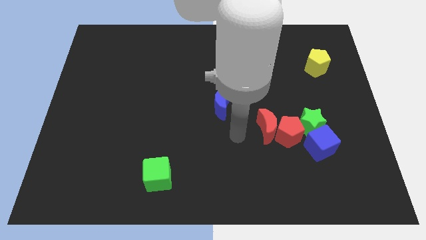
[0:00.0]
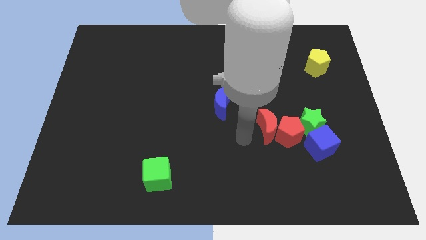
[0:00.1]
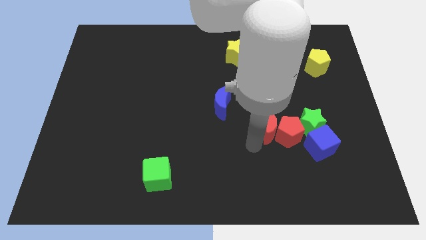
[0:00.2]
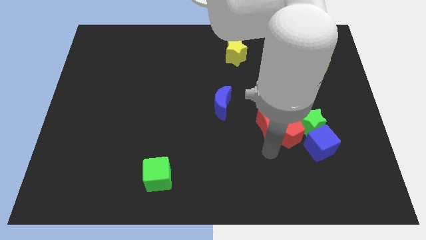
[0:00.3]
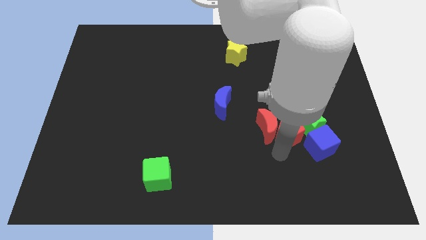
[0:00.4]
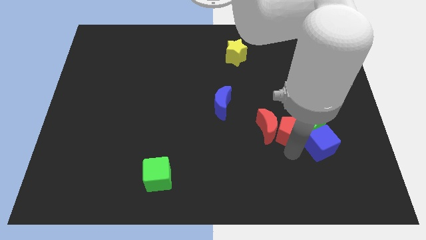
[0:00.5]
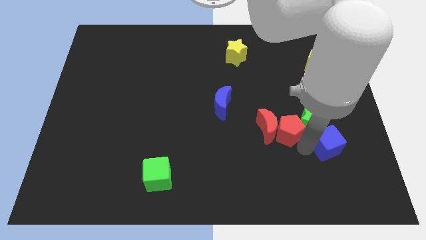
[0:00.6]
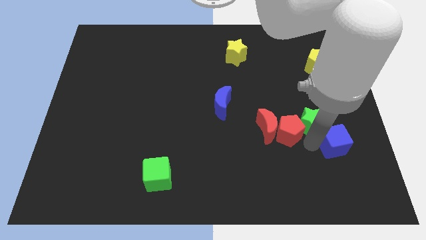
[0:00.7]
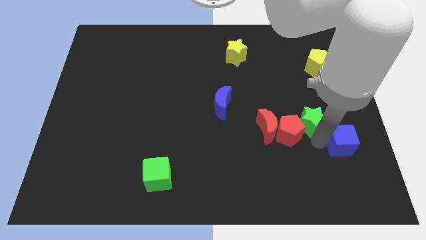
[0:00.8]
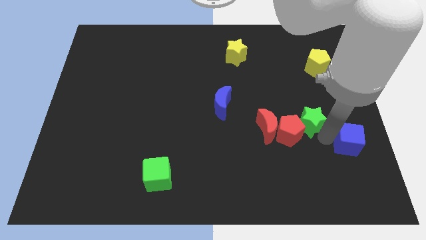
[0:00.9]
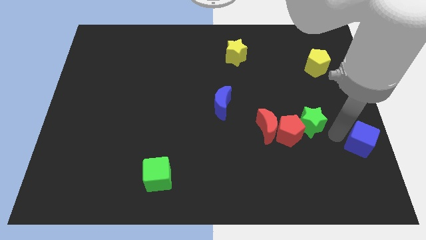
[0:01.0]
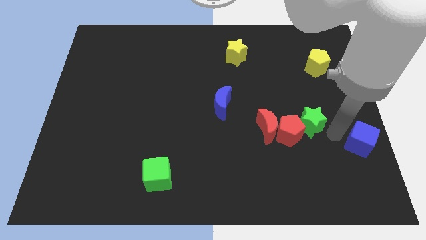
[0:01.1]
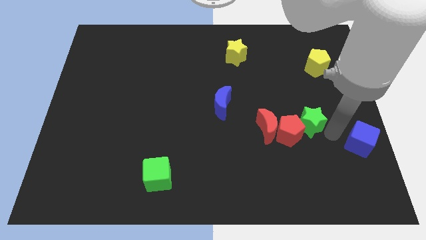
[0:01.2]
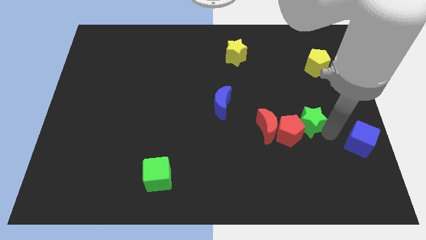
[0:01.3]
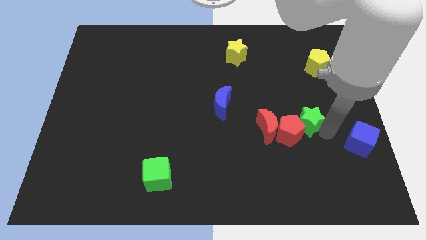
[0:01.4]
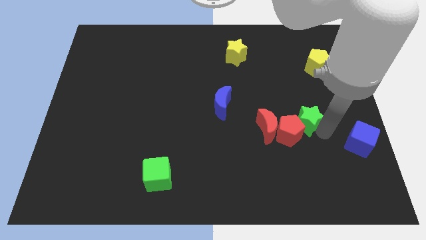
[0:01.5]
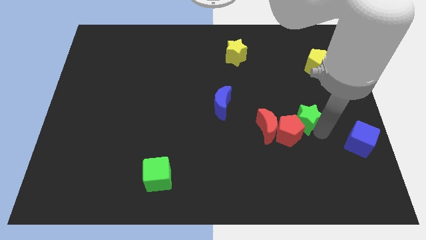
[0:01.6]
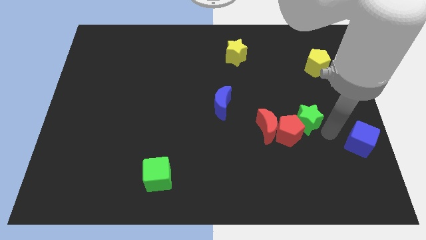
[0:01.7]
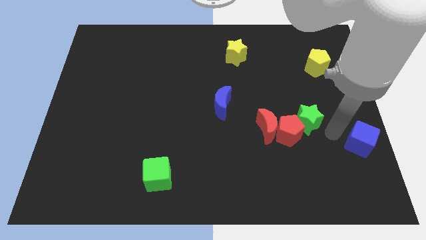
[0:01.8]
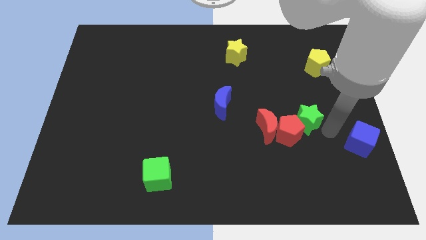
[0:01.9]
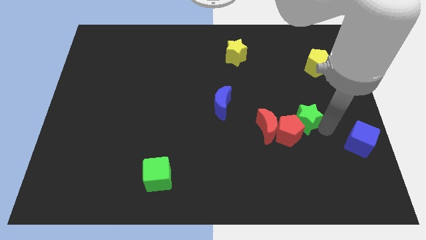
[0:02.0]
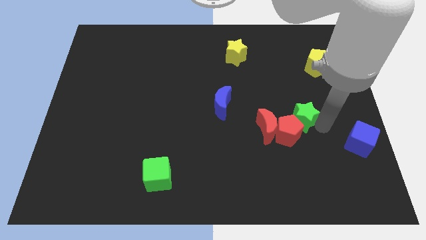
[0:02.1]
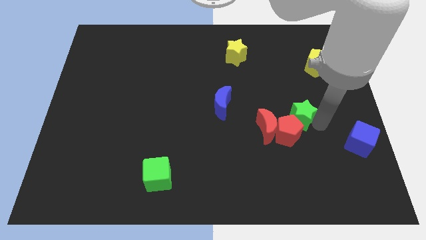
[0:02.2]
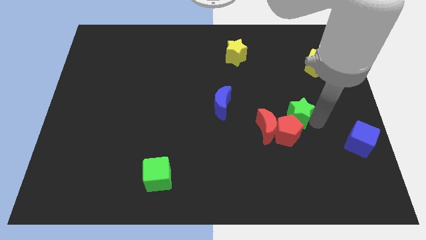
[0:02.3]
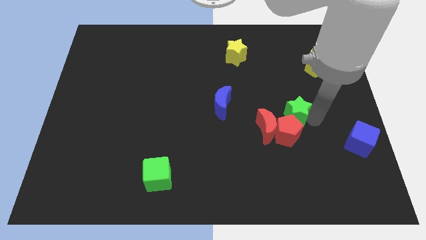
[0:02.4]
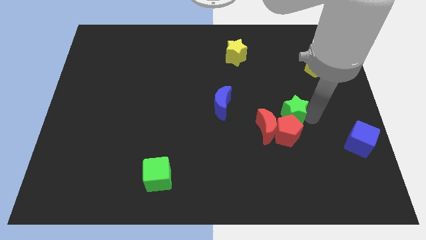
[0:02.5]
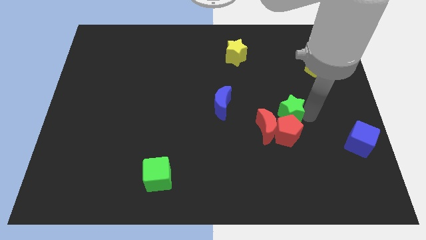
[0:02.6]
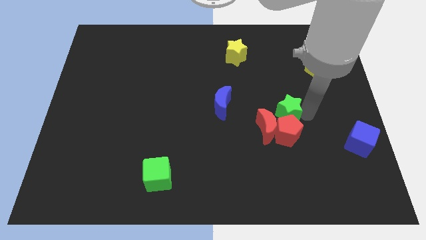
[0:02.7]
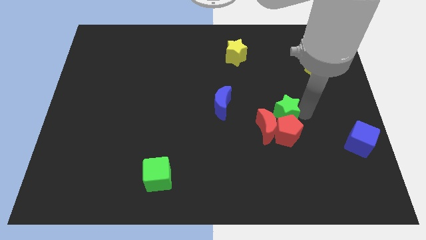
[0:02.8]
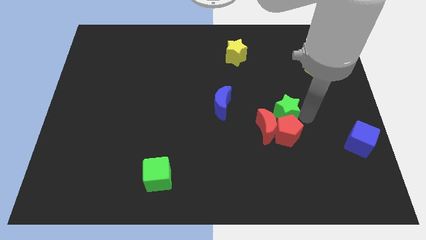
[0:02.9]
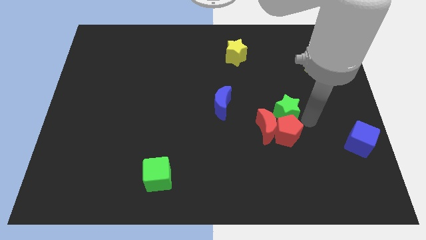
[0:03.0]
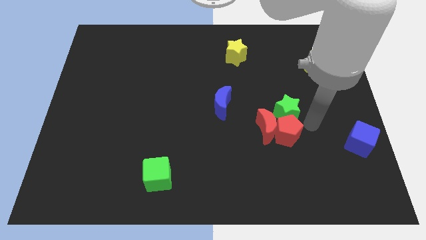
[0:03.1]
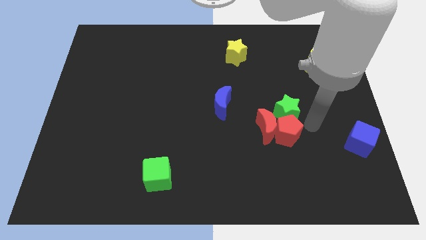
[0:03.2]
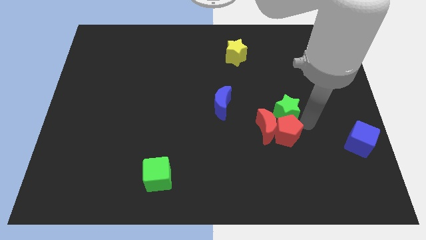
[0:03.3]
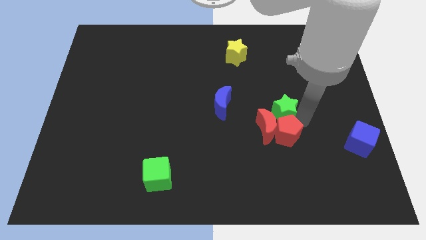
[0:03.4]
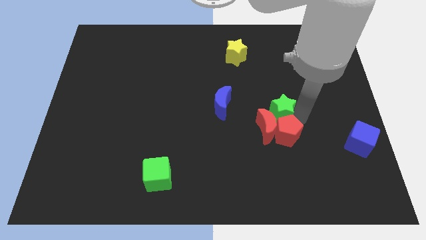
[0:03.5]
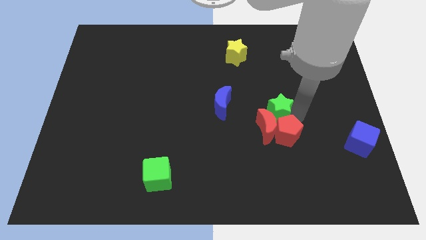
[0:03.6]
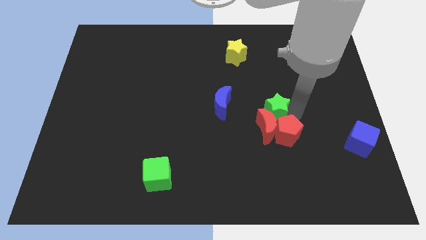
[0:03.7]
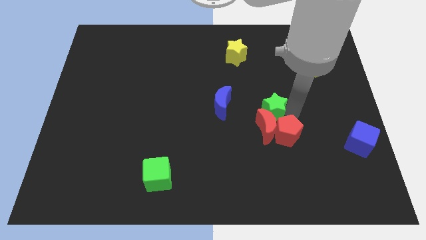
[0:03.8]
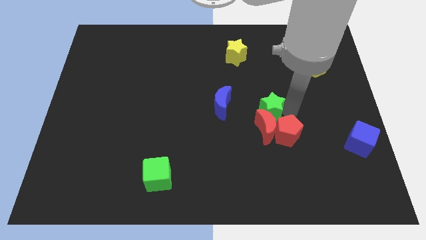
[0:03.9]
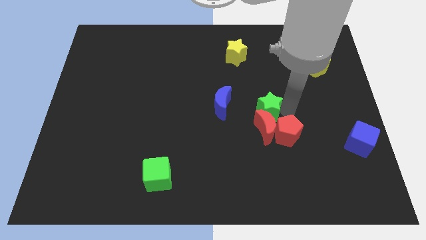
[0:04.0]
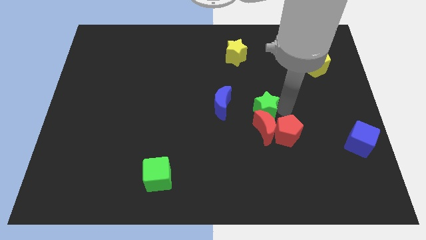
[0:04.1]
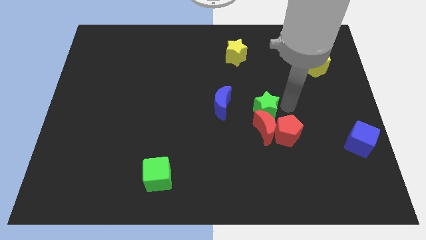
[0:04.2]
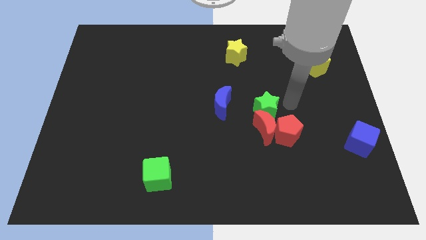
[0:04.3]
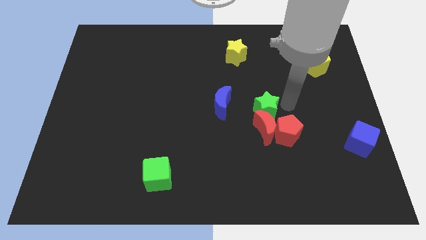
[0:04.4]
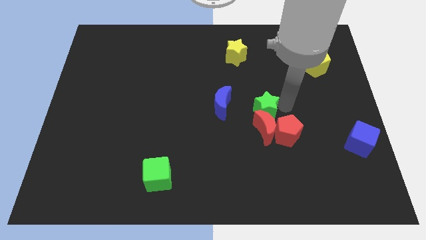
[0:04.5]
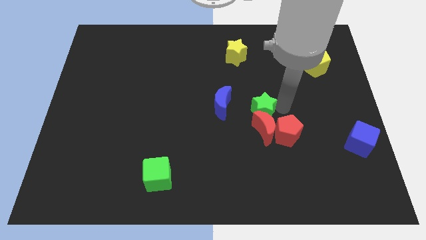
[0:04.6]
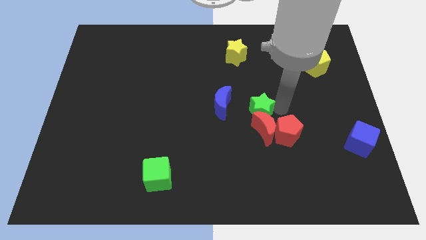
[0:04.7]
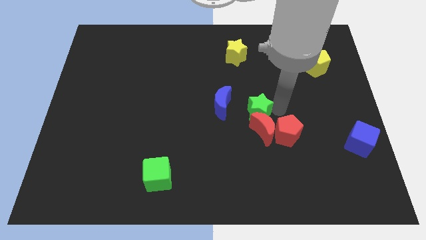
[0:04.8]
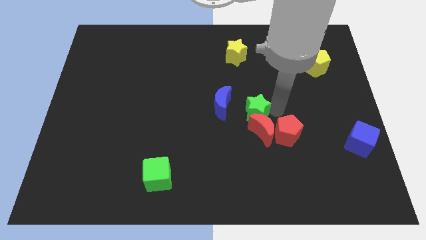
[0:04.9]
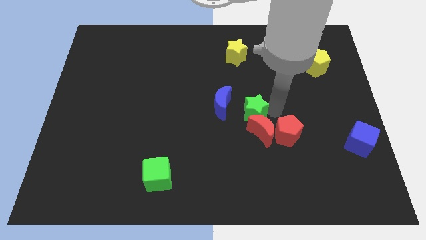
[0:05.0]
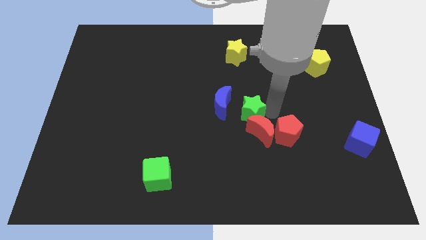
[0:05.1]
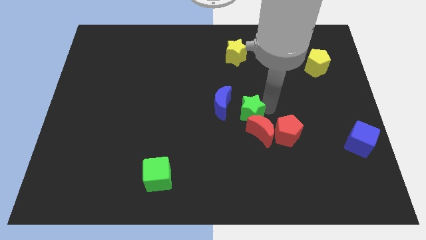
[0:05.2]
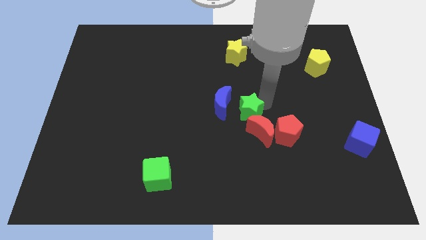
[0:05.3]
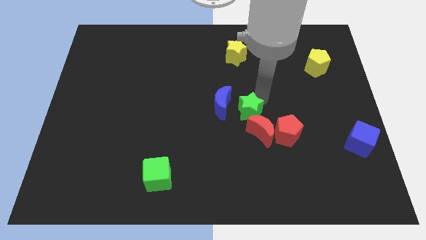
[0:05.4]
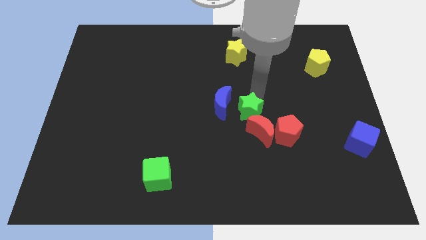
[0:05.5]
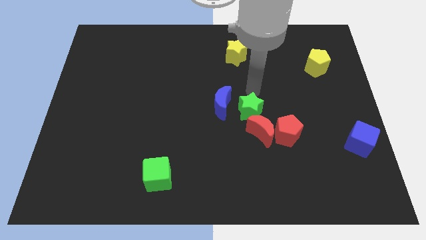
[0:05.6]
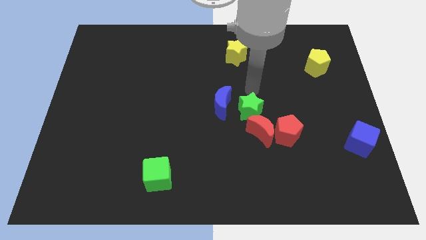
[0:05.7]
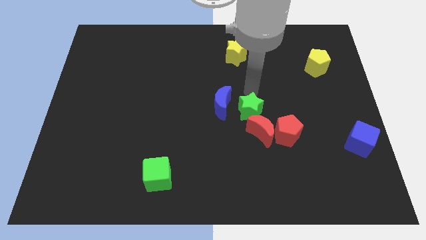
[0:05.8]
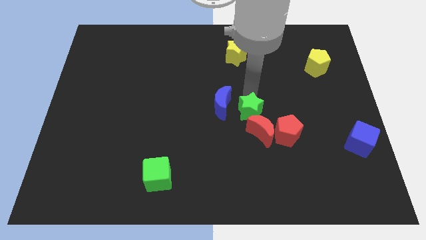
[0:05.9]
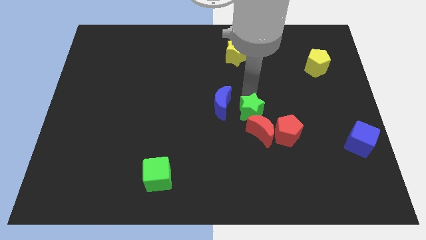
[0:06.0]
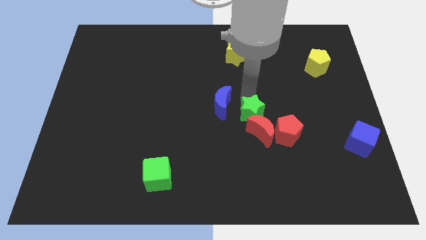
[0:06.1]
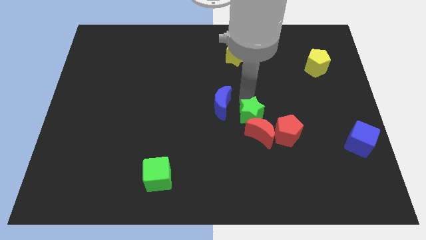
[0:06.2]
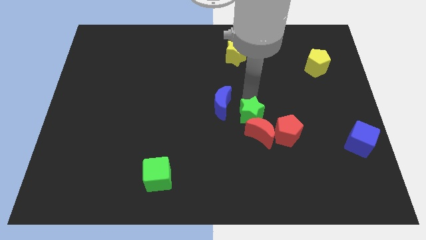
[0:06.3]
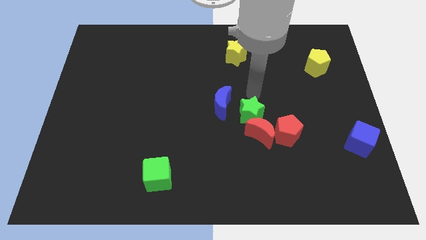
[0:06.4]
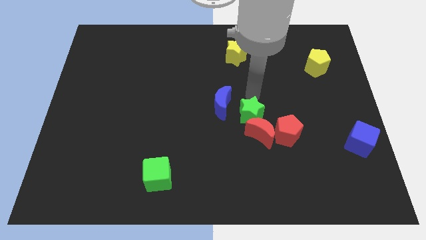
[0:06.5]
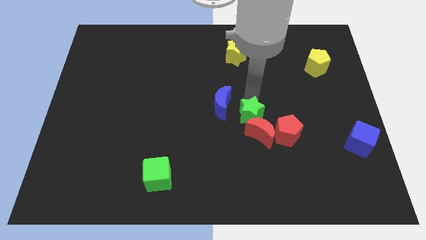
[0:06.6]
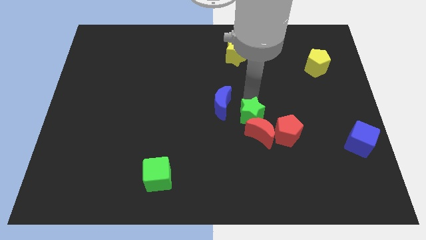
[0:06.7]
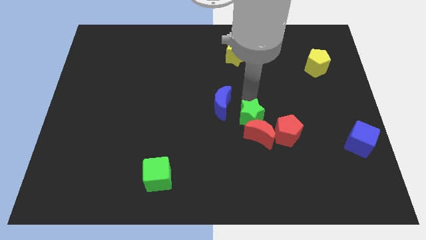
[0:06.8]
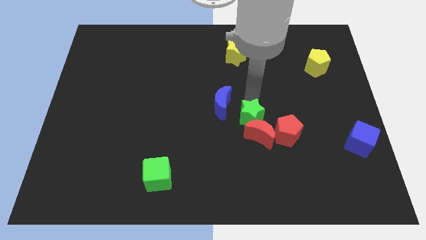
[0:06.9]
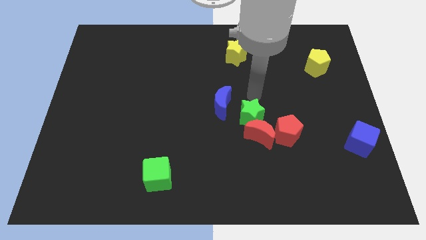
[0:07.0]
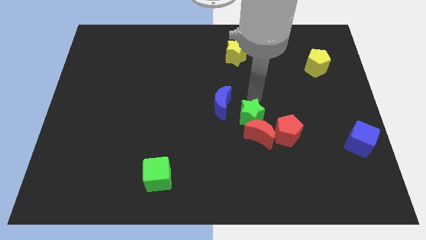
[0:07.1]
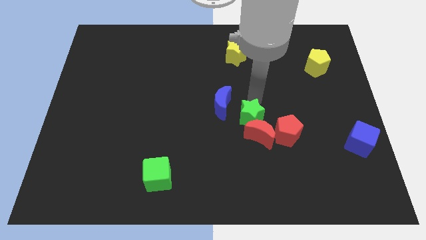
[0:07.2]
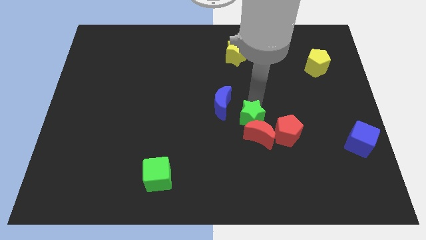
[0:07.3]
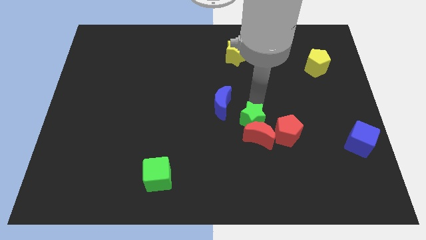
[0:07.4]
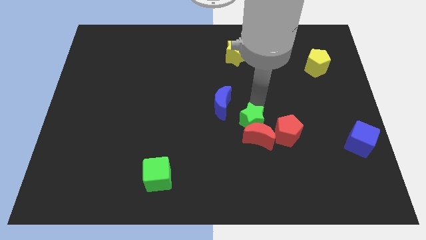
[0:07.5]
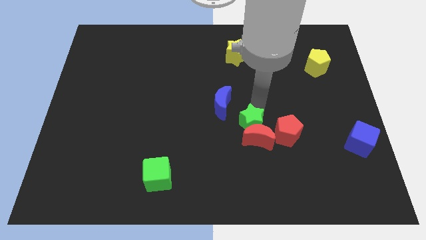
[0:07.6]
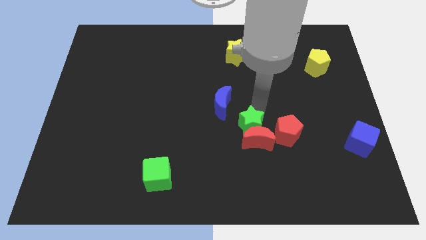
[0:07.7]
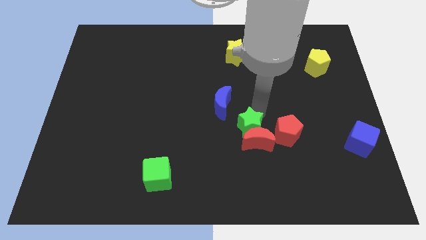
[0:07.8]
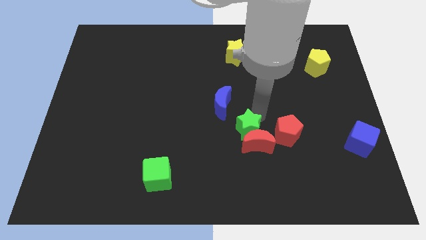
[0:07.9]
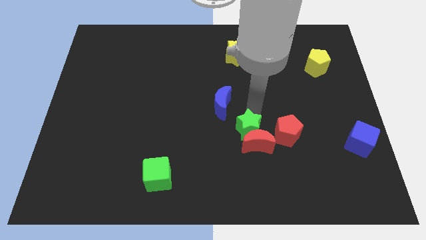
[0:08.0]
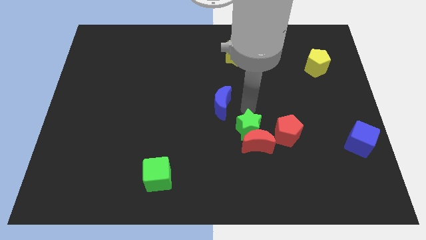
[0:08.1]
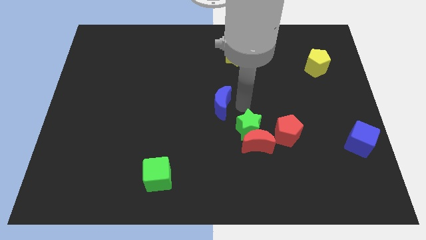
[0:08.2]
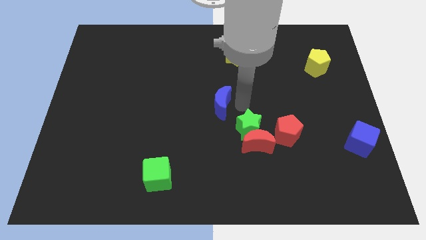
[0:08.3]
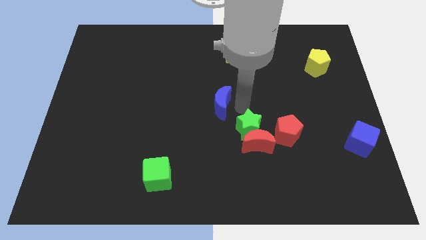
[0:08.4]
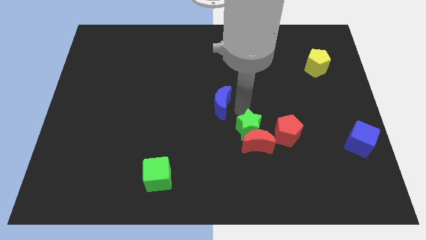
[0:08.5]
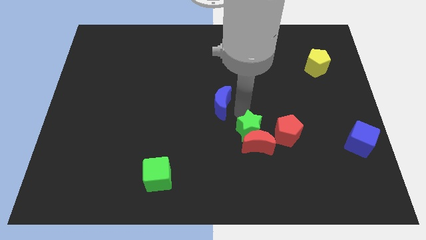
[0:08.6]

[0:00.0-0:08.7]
slide the green star down and left a bit
